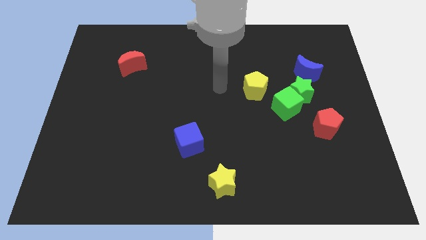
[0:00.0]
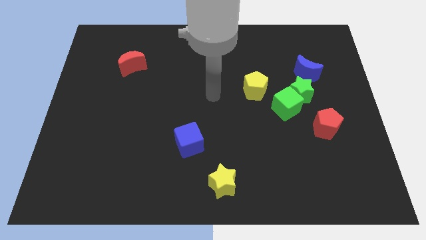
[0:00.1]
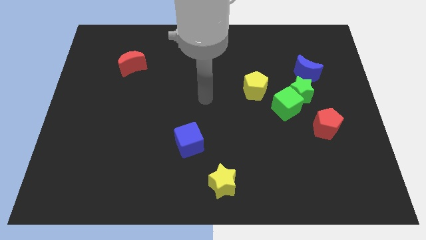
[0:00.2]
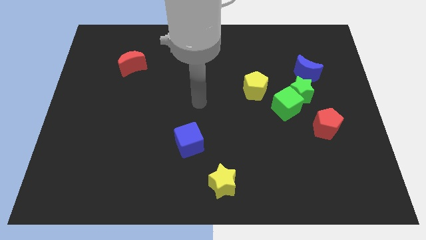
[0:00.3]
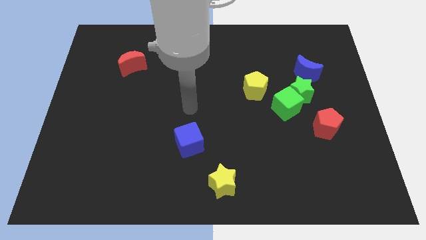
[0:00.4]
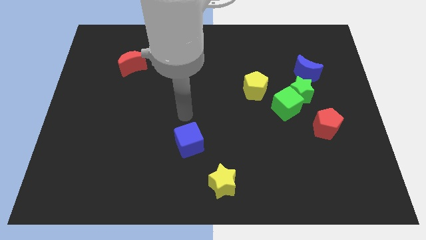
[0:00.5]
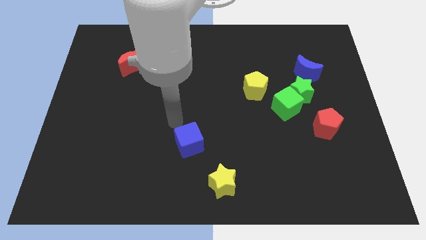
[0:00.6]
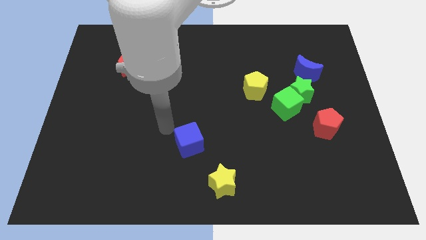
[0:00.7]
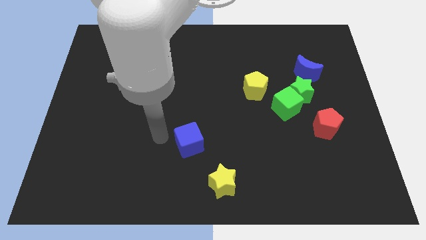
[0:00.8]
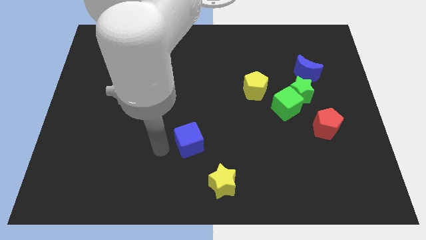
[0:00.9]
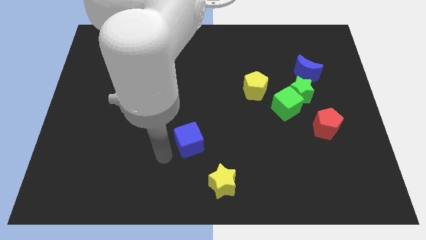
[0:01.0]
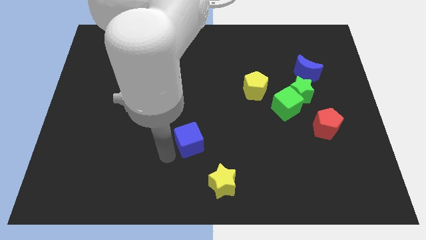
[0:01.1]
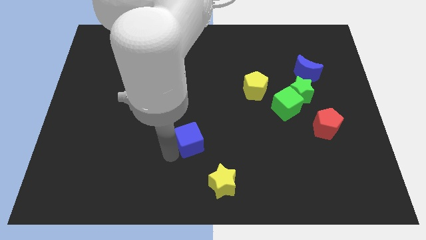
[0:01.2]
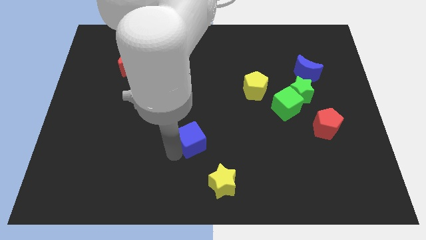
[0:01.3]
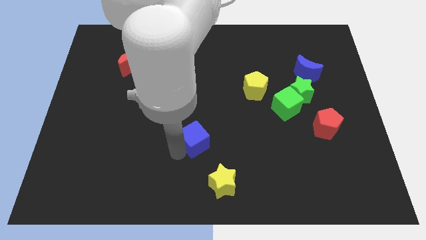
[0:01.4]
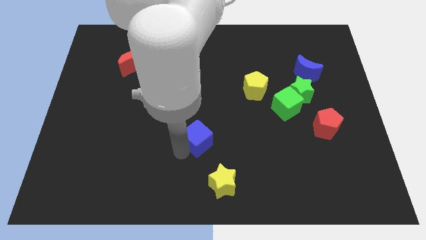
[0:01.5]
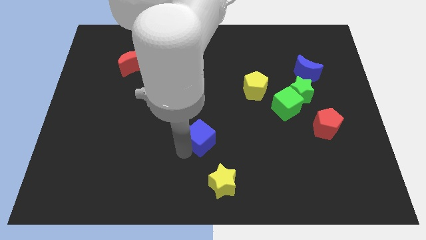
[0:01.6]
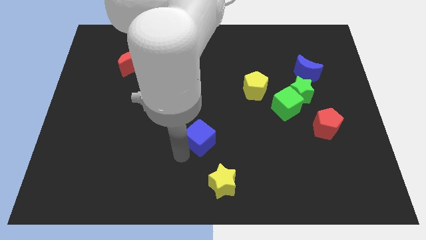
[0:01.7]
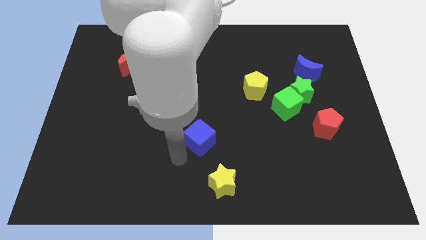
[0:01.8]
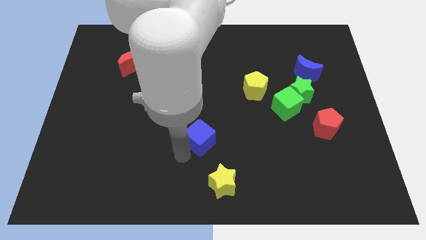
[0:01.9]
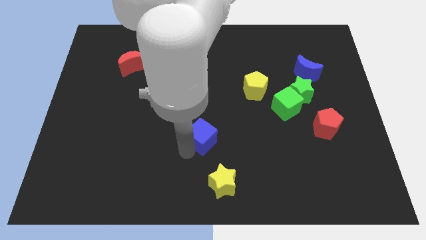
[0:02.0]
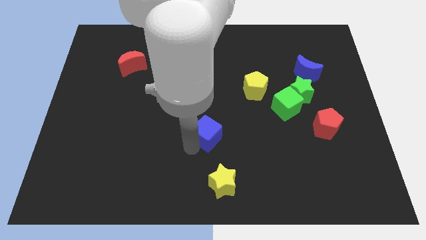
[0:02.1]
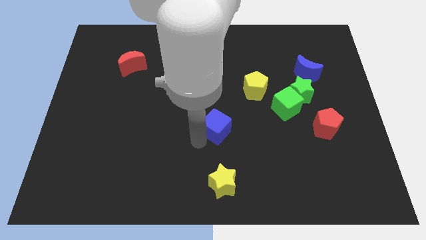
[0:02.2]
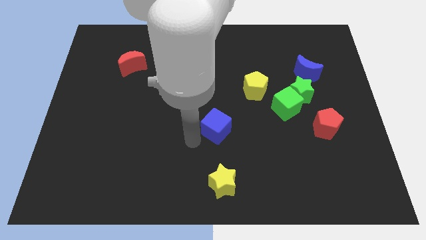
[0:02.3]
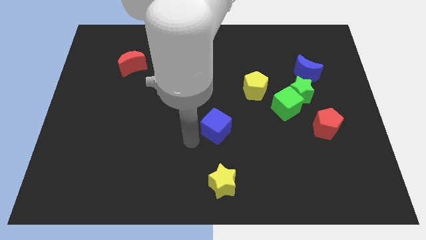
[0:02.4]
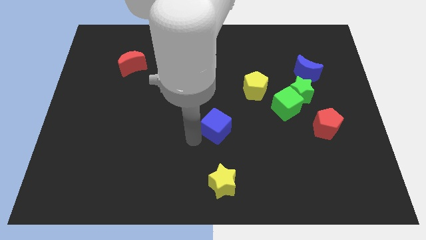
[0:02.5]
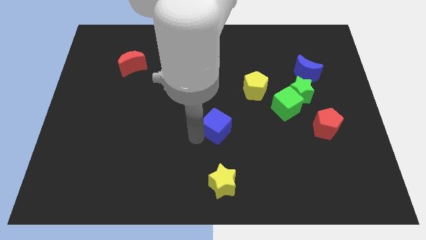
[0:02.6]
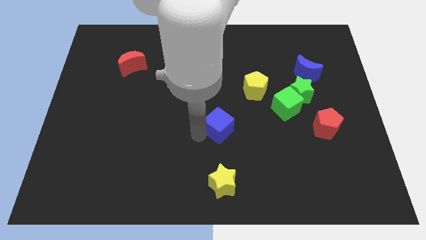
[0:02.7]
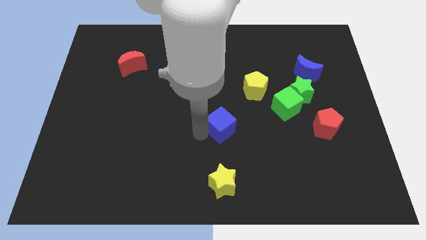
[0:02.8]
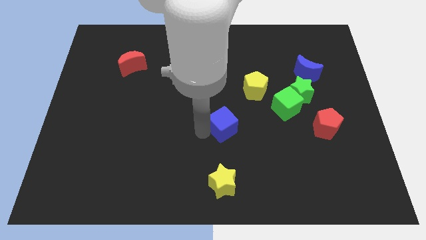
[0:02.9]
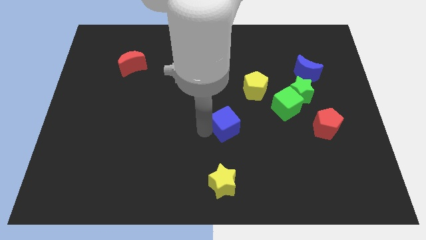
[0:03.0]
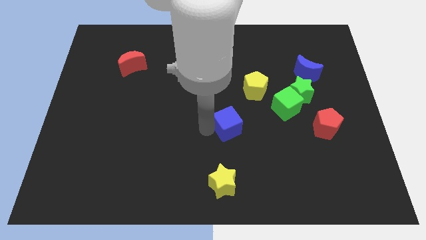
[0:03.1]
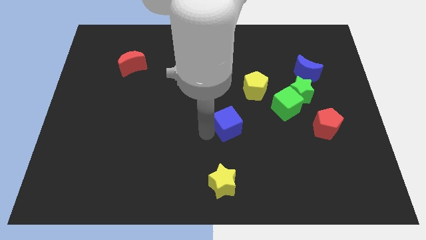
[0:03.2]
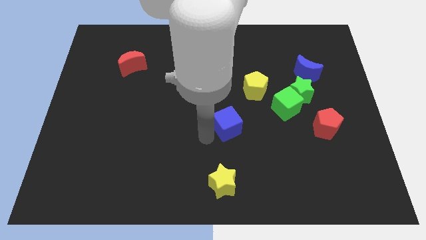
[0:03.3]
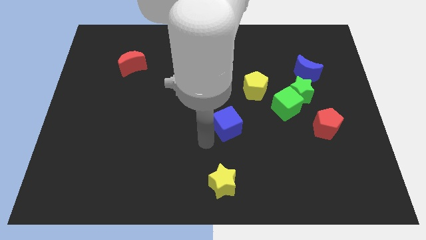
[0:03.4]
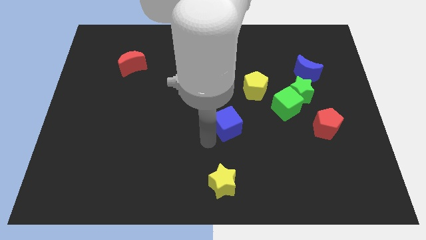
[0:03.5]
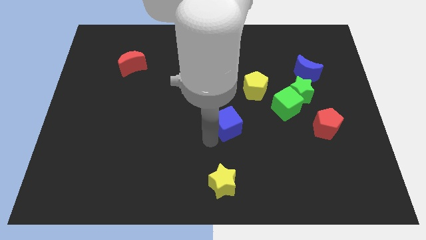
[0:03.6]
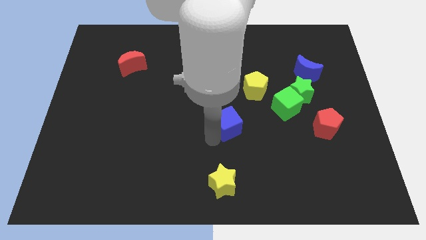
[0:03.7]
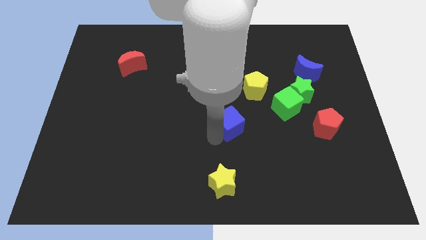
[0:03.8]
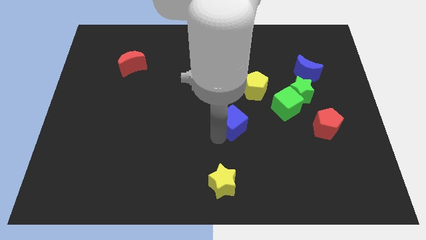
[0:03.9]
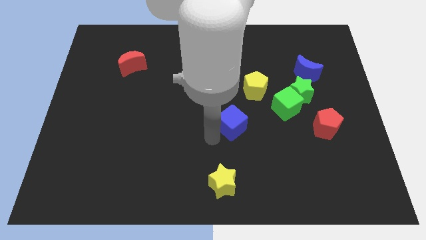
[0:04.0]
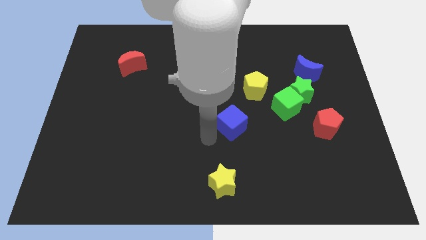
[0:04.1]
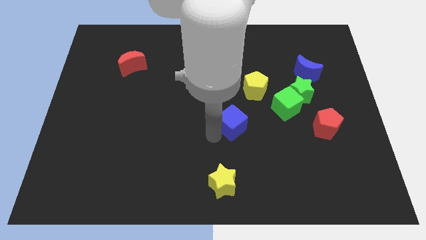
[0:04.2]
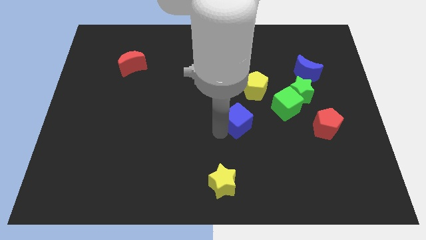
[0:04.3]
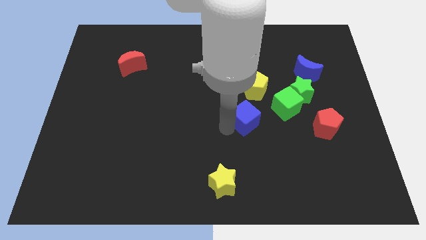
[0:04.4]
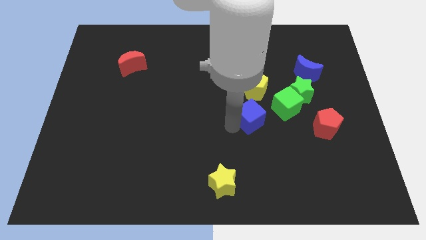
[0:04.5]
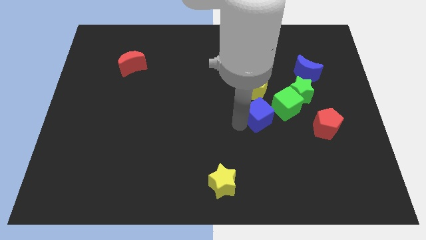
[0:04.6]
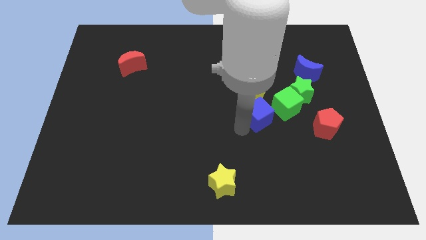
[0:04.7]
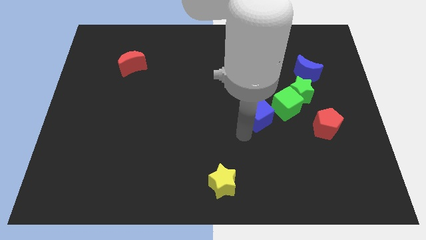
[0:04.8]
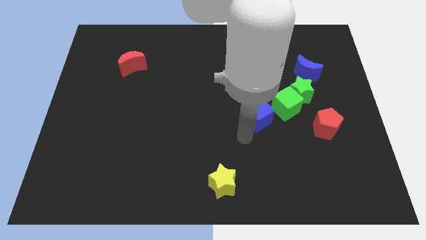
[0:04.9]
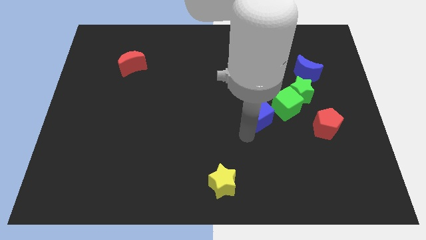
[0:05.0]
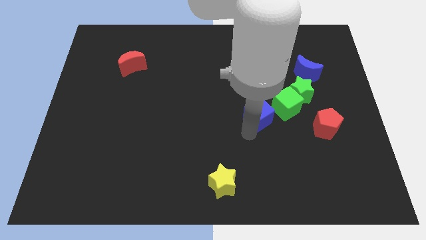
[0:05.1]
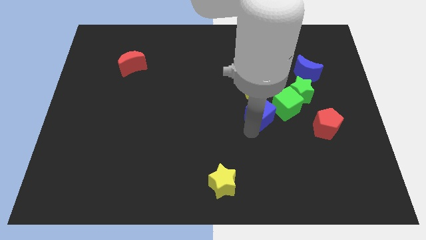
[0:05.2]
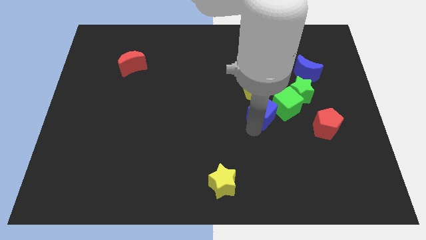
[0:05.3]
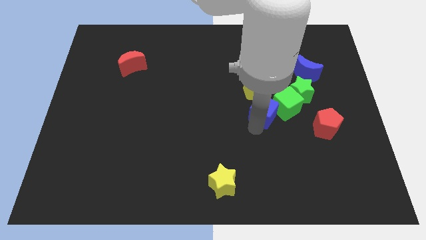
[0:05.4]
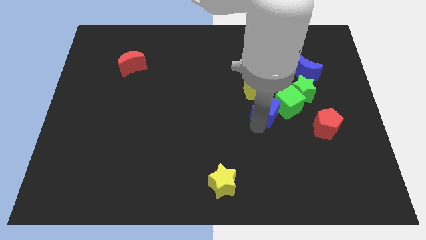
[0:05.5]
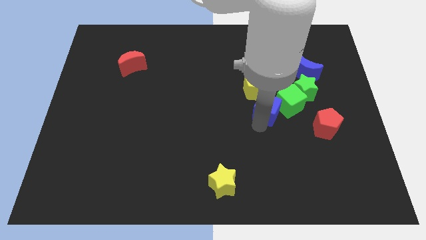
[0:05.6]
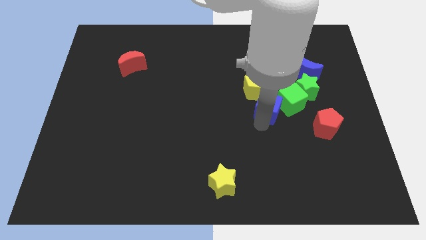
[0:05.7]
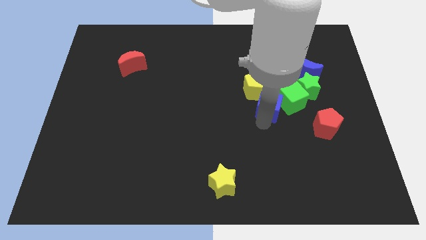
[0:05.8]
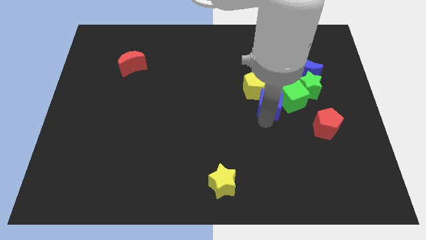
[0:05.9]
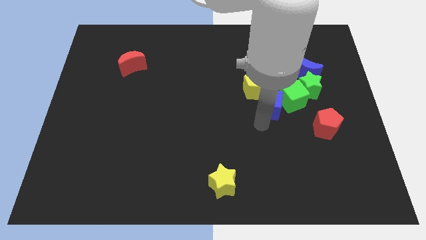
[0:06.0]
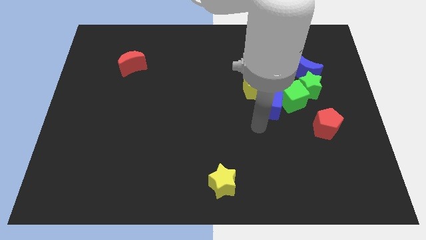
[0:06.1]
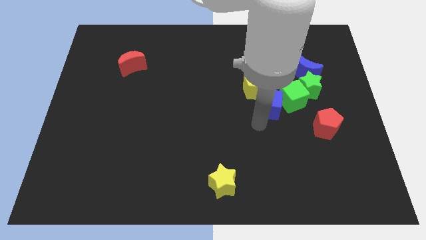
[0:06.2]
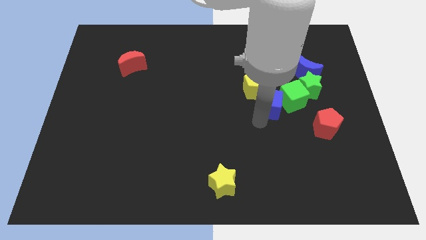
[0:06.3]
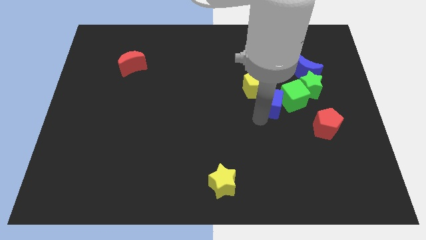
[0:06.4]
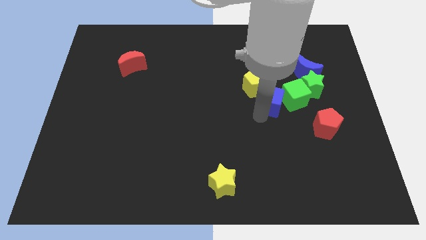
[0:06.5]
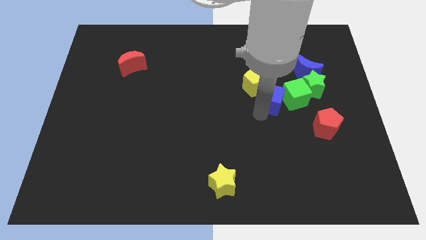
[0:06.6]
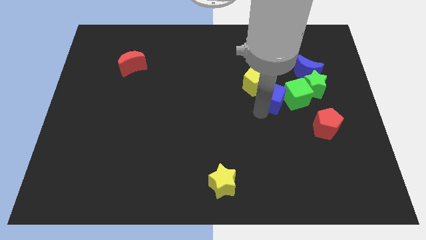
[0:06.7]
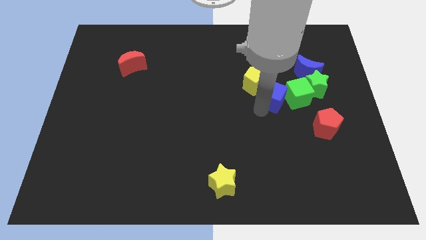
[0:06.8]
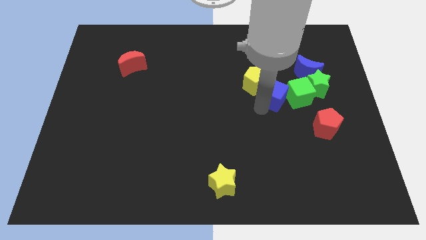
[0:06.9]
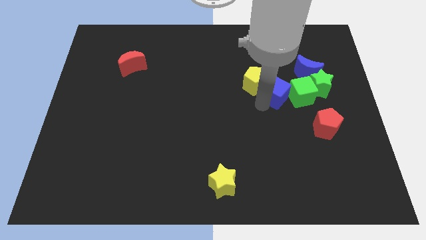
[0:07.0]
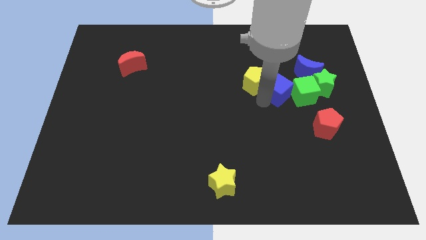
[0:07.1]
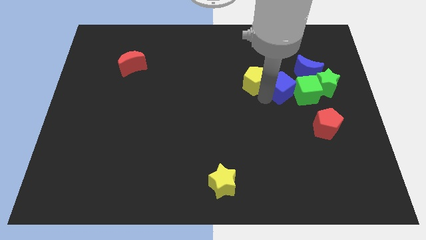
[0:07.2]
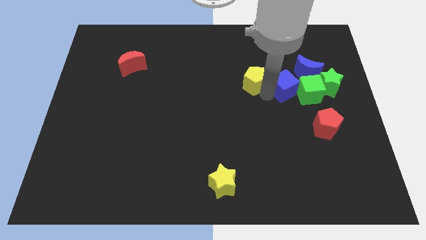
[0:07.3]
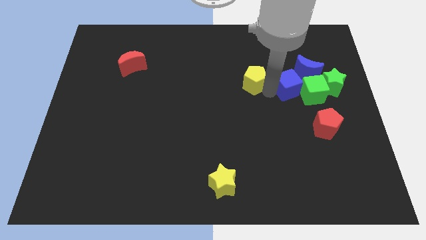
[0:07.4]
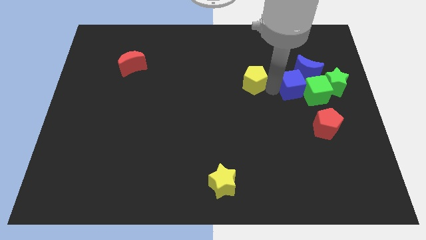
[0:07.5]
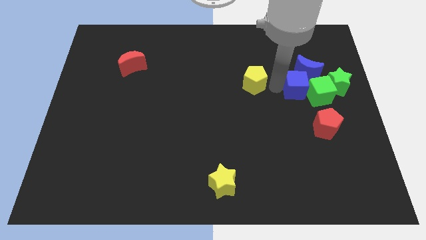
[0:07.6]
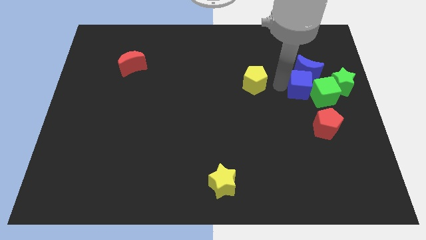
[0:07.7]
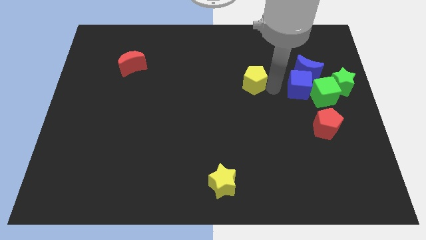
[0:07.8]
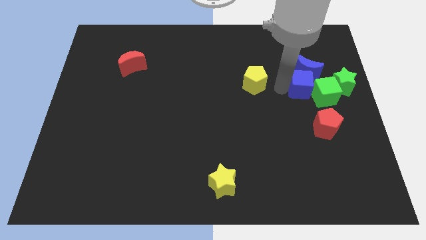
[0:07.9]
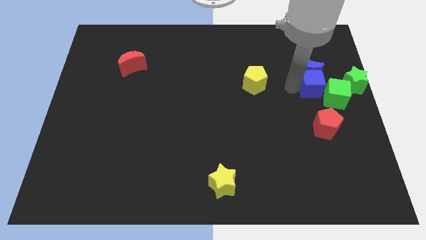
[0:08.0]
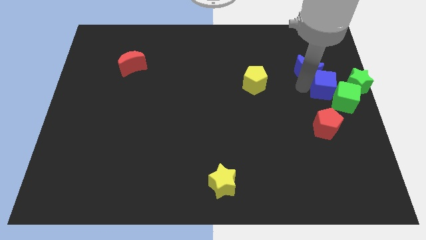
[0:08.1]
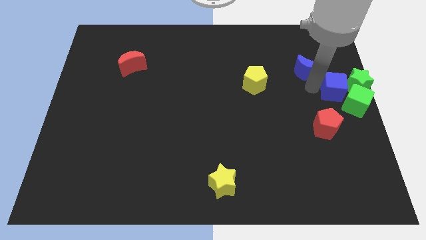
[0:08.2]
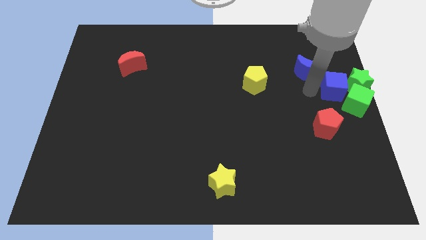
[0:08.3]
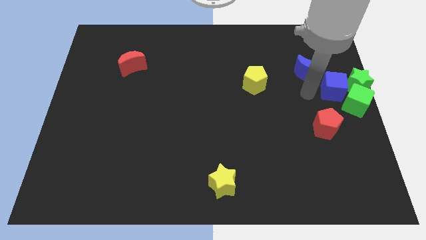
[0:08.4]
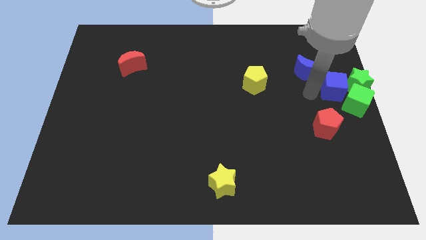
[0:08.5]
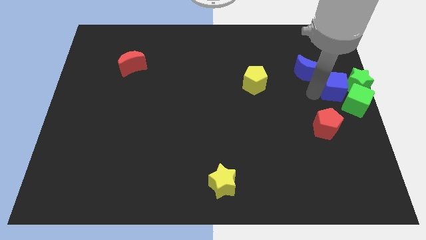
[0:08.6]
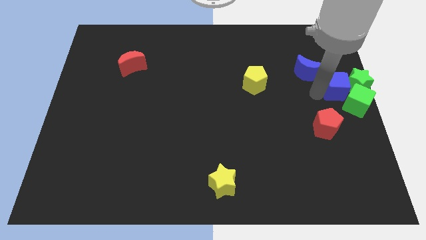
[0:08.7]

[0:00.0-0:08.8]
put the blue cube close to the green star
